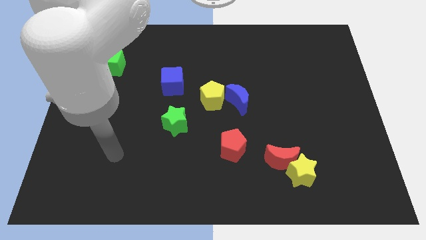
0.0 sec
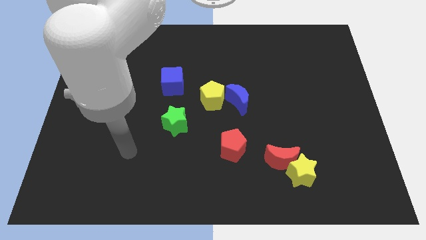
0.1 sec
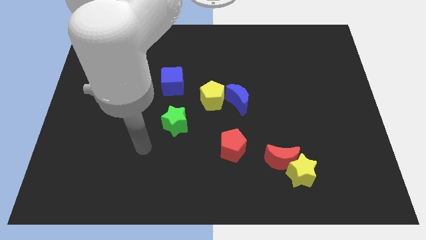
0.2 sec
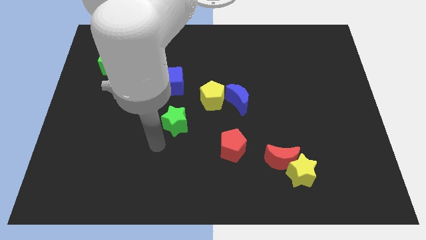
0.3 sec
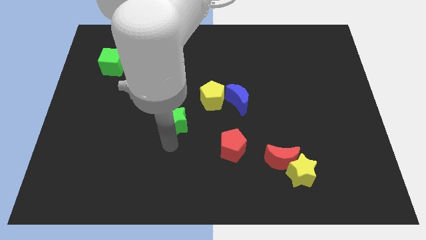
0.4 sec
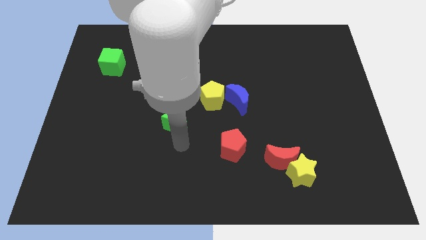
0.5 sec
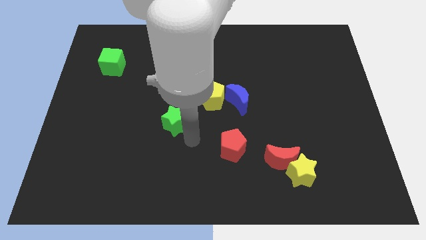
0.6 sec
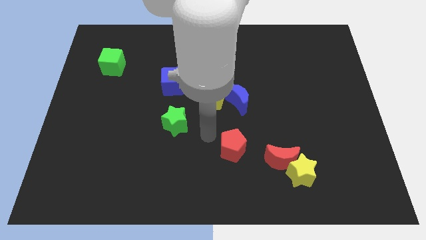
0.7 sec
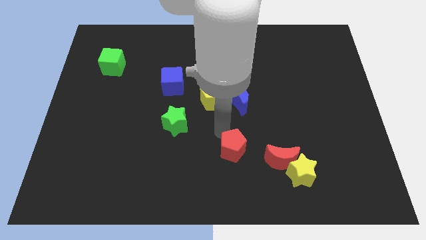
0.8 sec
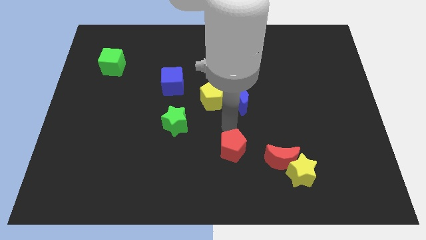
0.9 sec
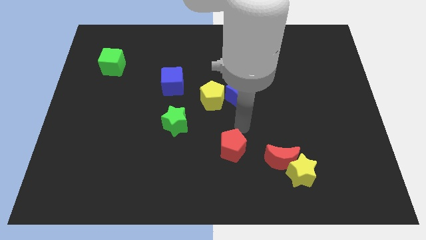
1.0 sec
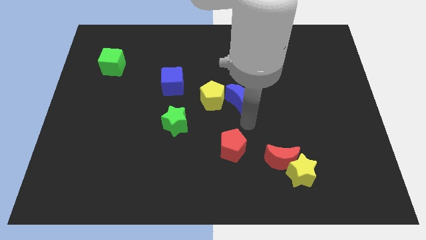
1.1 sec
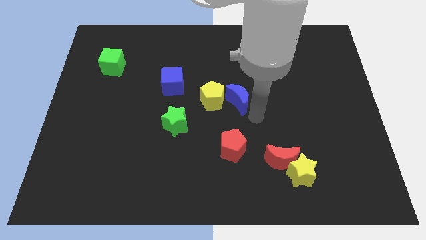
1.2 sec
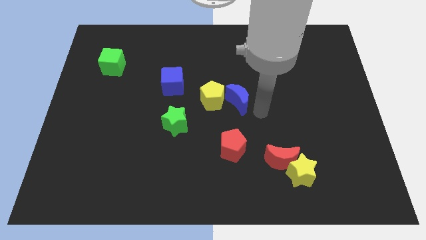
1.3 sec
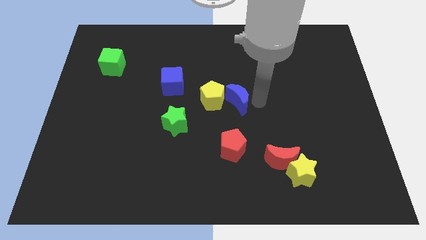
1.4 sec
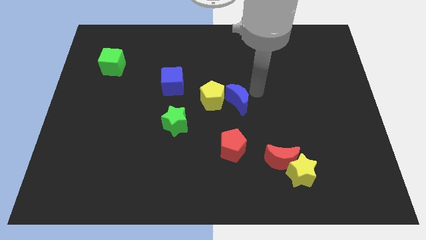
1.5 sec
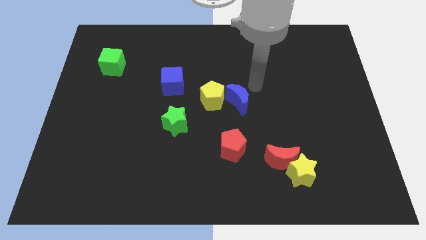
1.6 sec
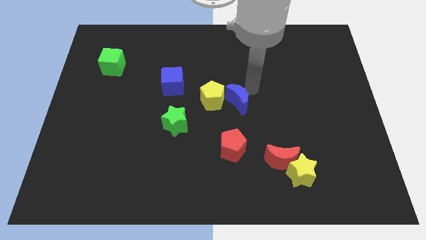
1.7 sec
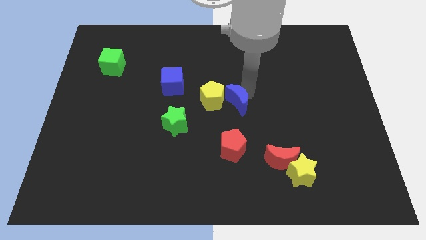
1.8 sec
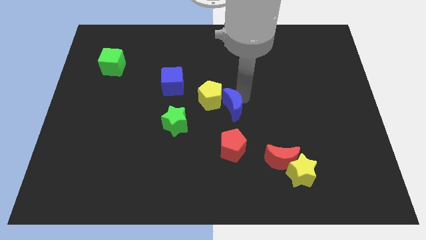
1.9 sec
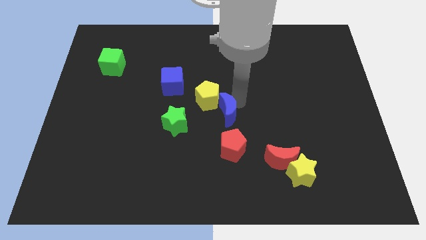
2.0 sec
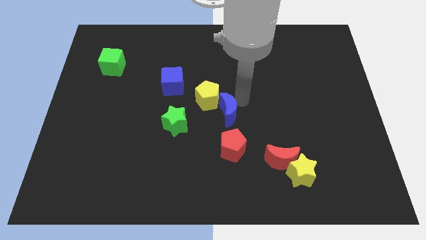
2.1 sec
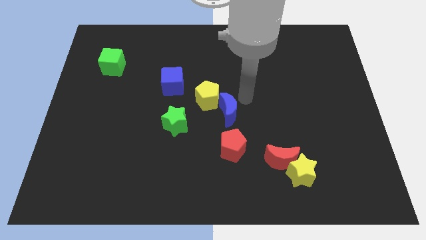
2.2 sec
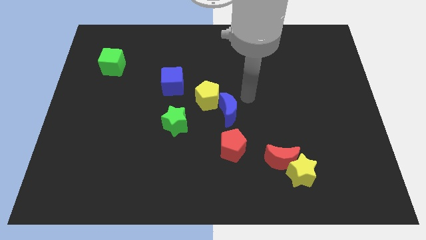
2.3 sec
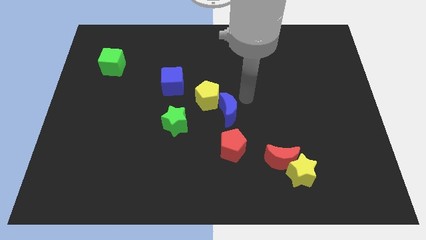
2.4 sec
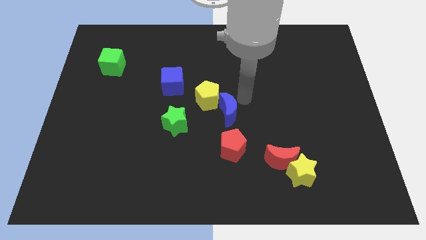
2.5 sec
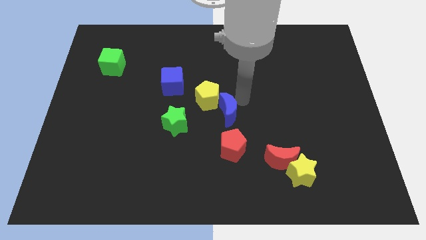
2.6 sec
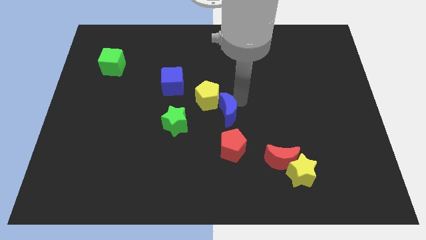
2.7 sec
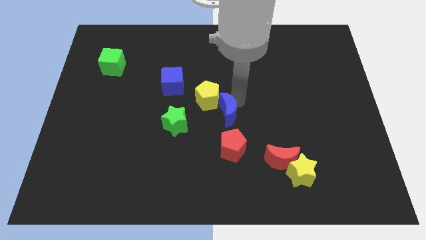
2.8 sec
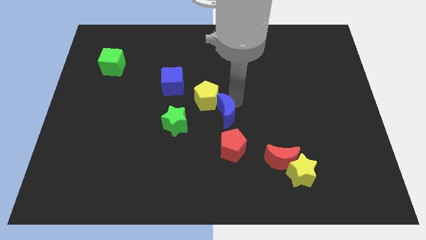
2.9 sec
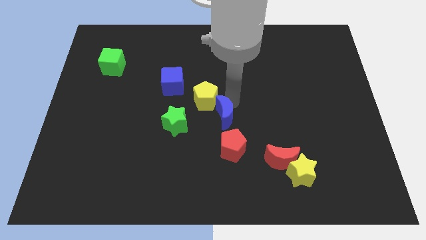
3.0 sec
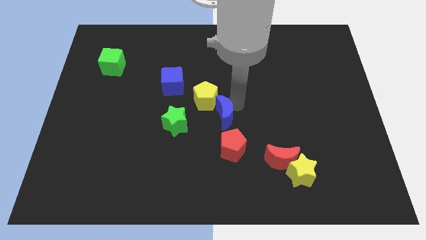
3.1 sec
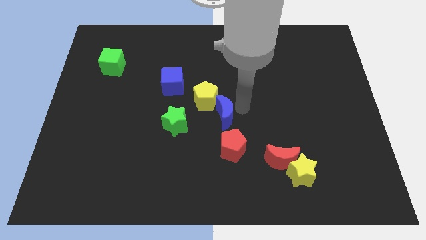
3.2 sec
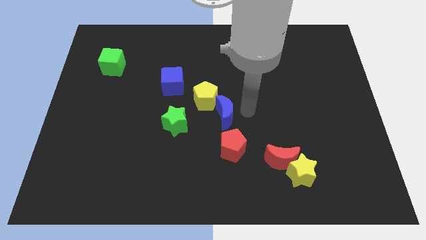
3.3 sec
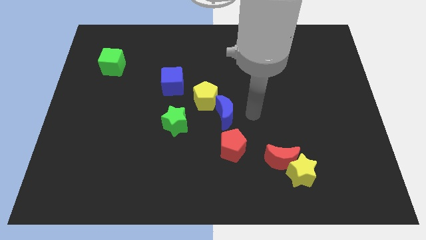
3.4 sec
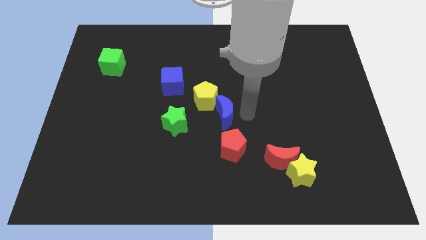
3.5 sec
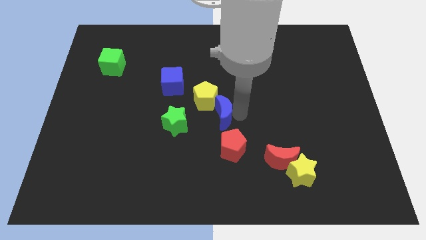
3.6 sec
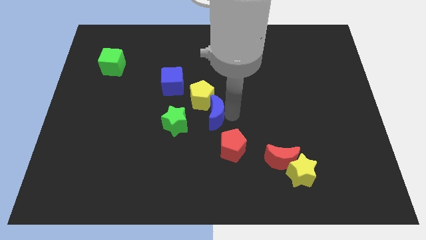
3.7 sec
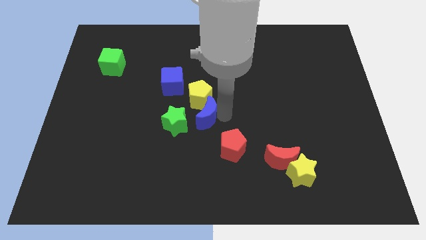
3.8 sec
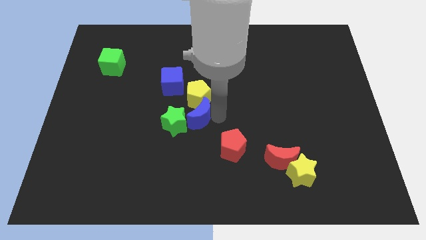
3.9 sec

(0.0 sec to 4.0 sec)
slightly move the blue moon left

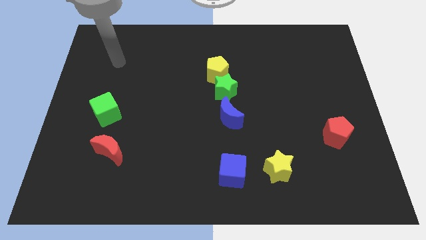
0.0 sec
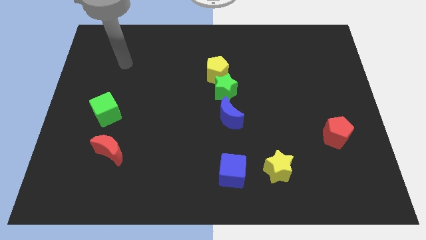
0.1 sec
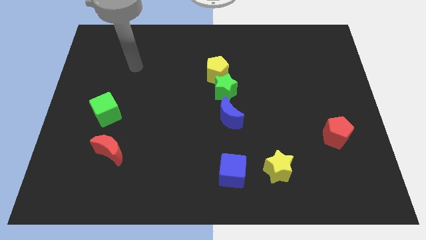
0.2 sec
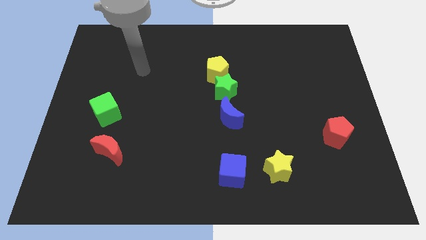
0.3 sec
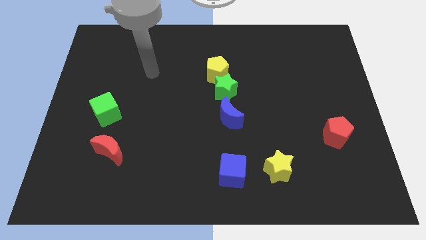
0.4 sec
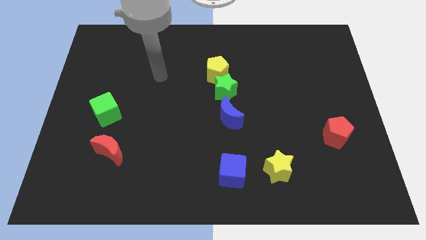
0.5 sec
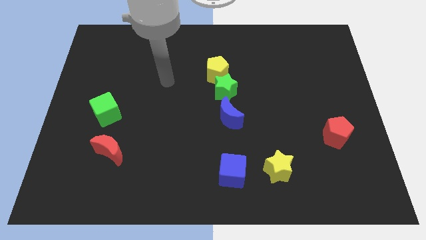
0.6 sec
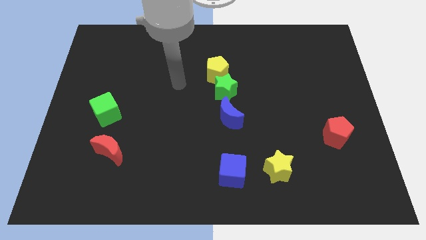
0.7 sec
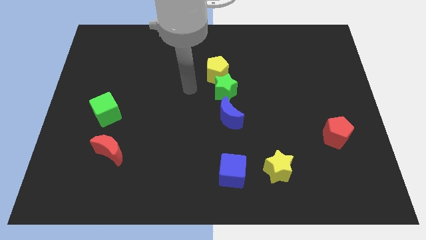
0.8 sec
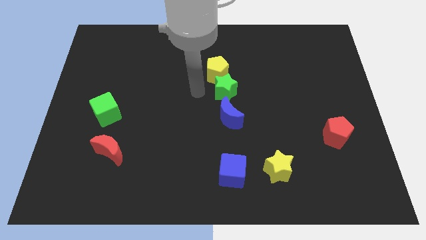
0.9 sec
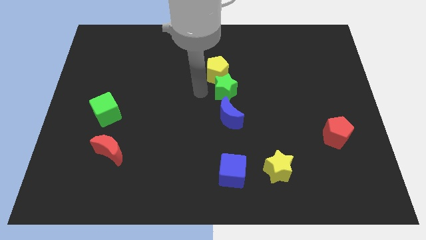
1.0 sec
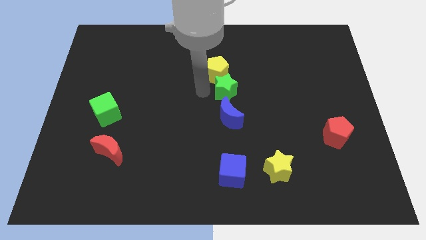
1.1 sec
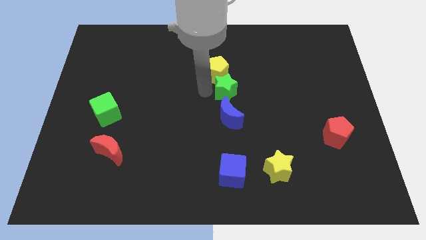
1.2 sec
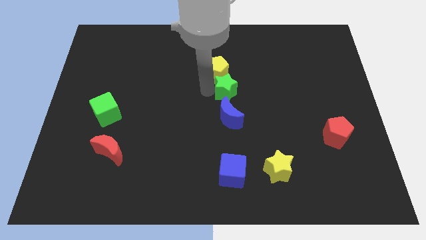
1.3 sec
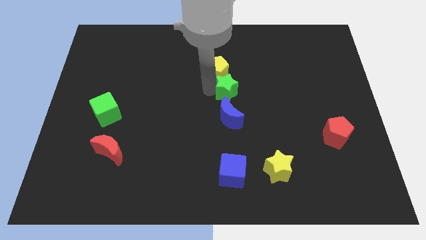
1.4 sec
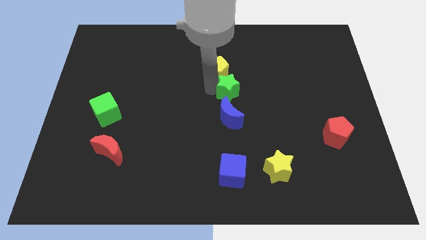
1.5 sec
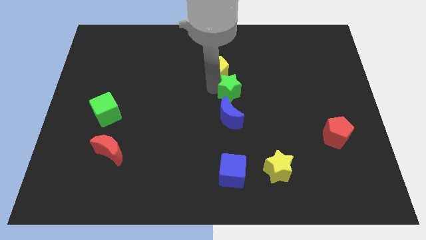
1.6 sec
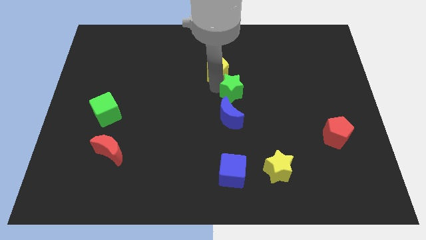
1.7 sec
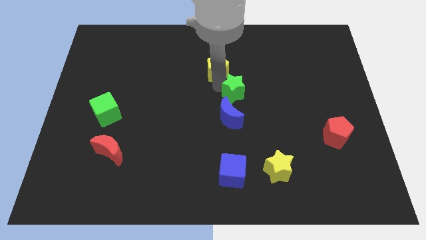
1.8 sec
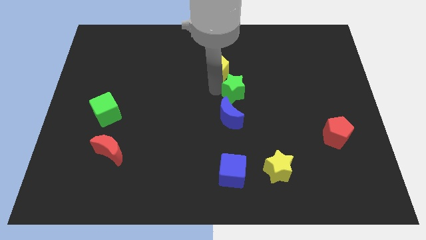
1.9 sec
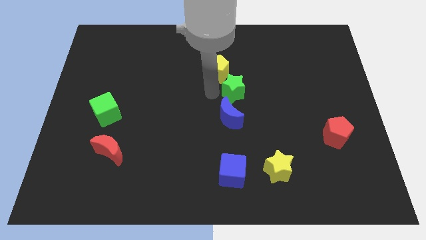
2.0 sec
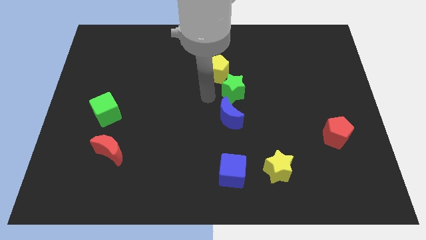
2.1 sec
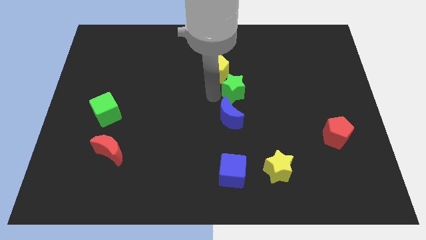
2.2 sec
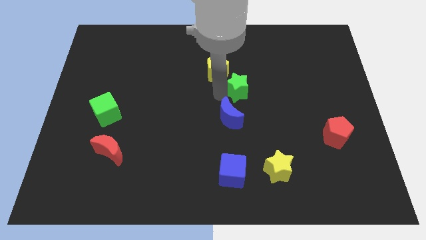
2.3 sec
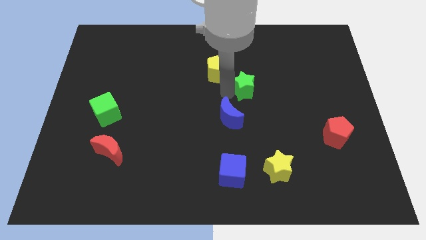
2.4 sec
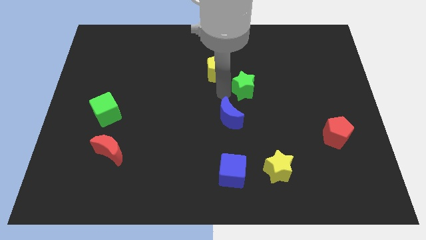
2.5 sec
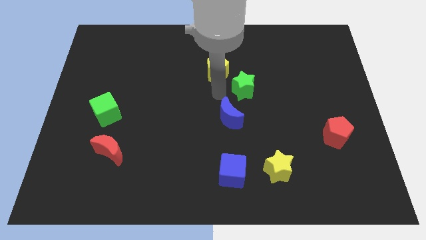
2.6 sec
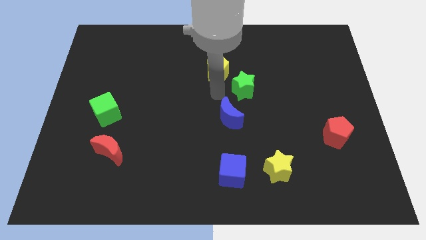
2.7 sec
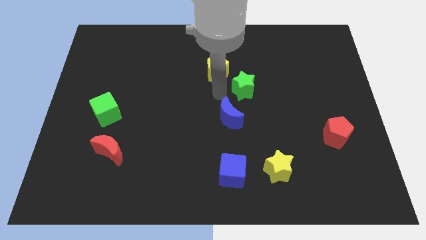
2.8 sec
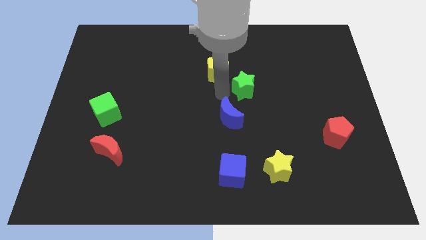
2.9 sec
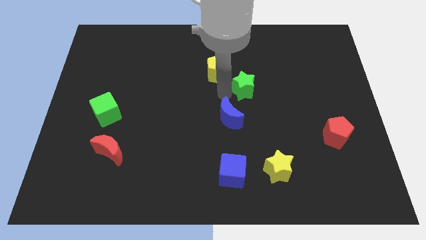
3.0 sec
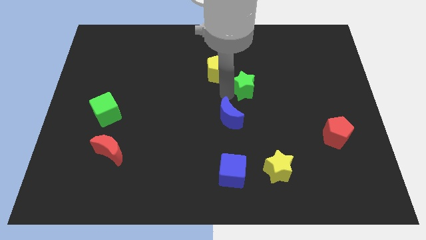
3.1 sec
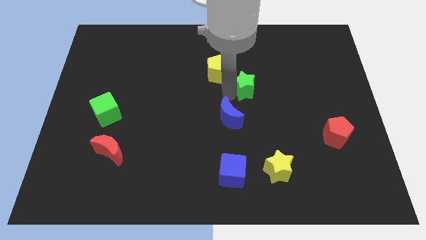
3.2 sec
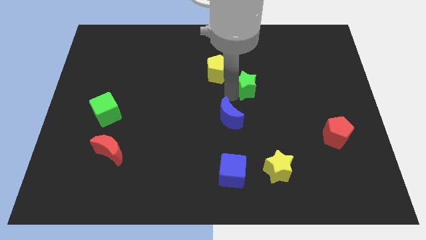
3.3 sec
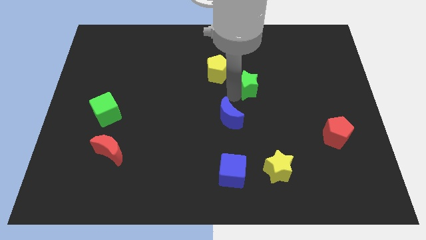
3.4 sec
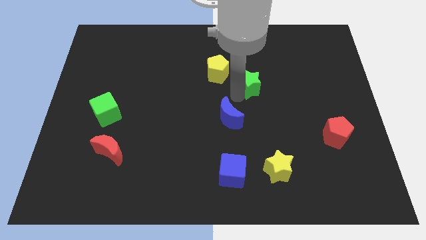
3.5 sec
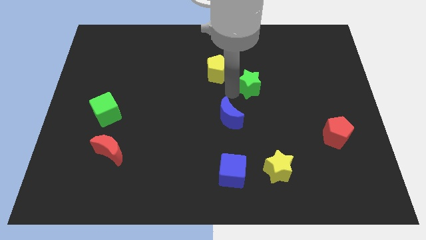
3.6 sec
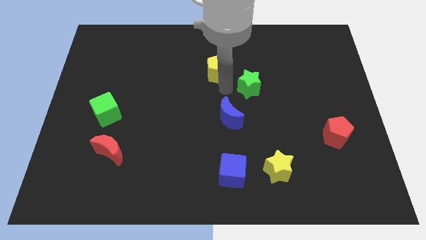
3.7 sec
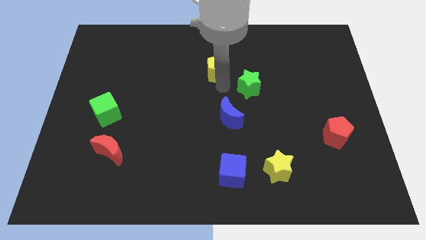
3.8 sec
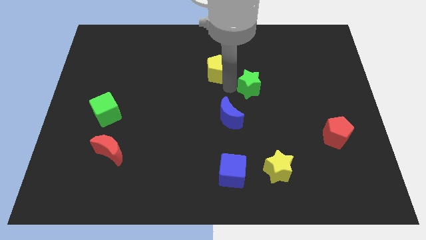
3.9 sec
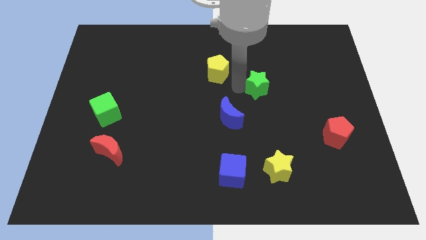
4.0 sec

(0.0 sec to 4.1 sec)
push the green star slightly right
